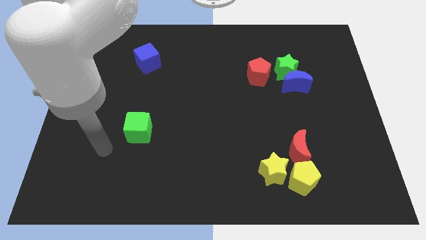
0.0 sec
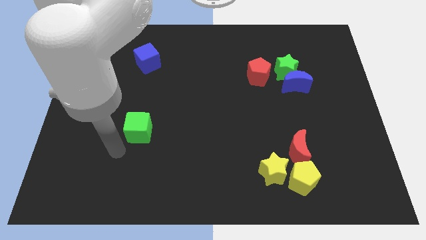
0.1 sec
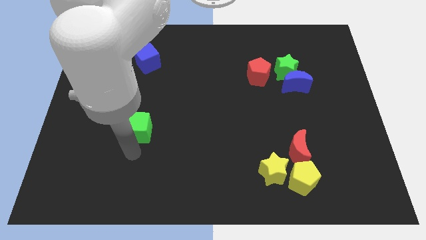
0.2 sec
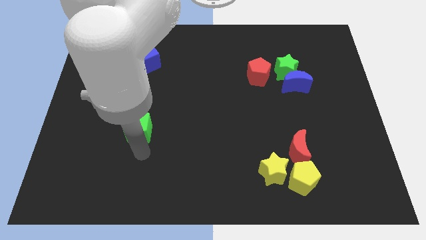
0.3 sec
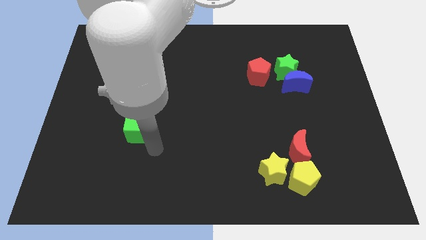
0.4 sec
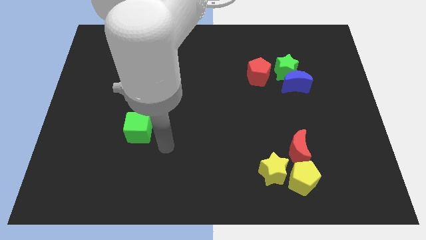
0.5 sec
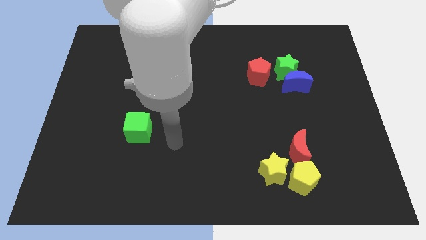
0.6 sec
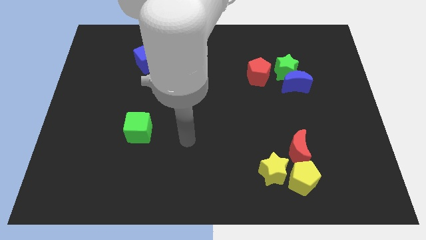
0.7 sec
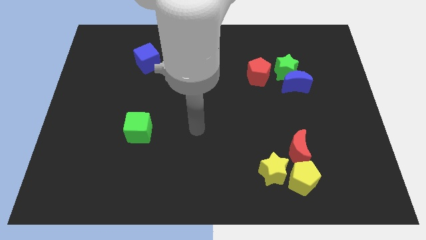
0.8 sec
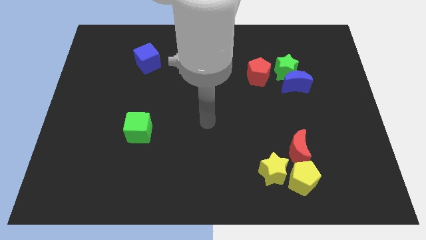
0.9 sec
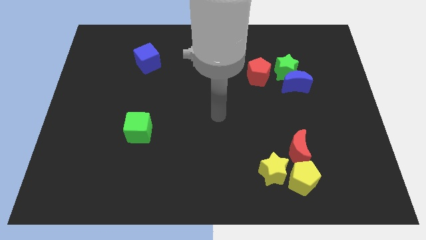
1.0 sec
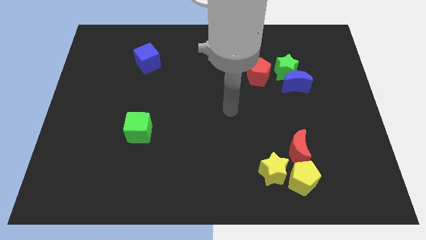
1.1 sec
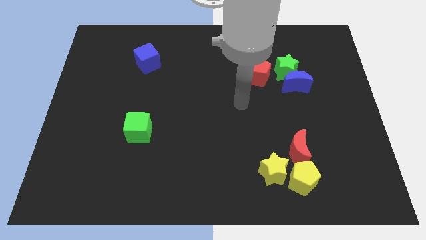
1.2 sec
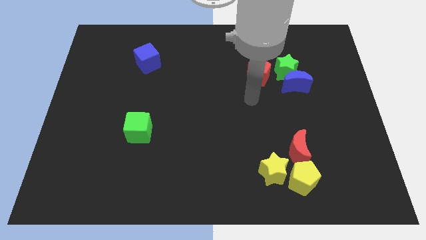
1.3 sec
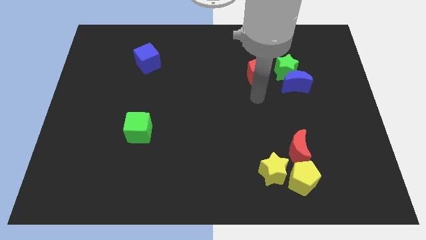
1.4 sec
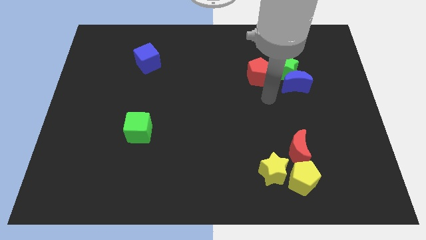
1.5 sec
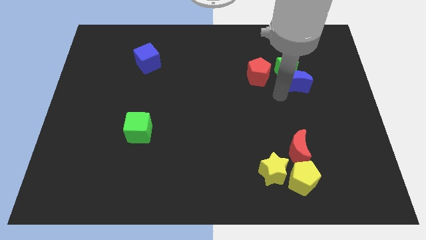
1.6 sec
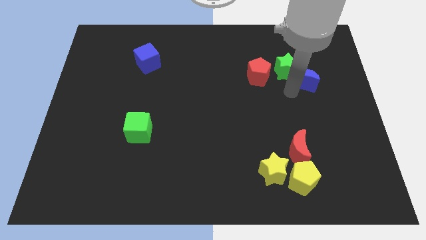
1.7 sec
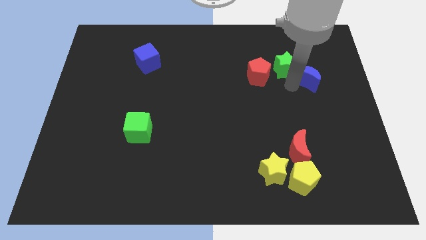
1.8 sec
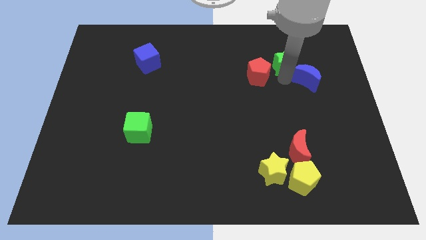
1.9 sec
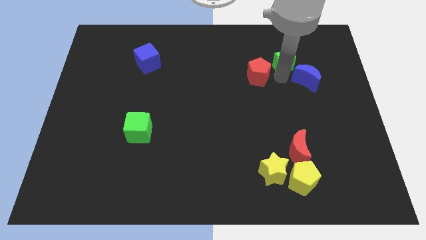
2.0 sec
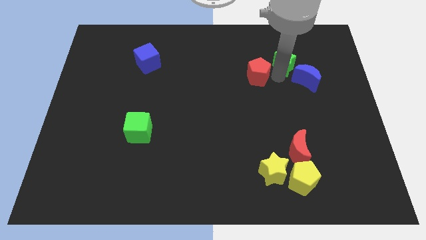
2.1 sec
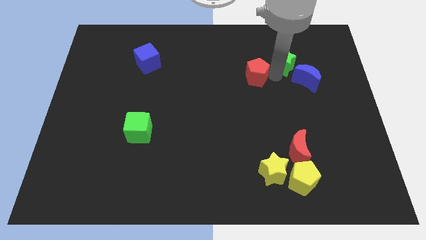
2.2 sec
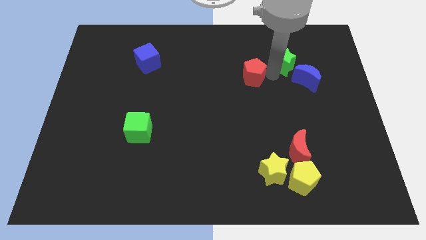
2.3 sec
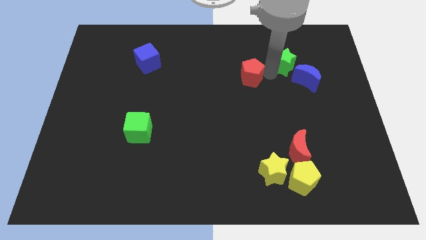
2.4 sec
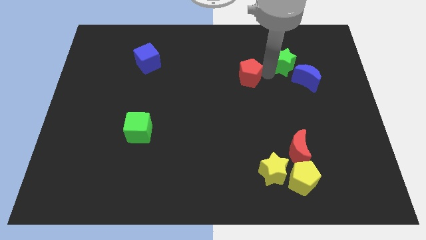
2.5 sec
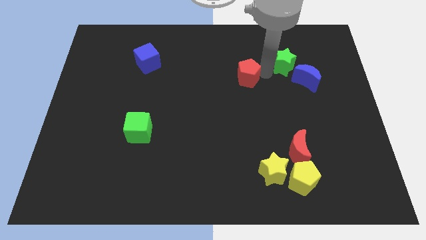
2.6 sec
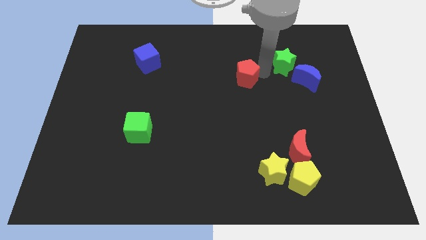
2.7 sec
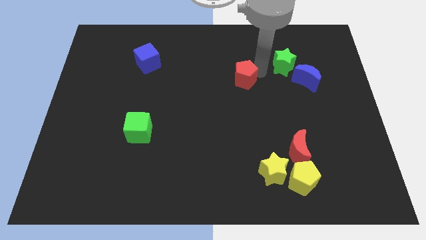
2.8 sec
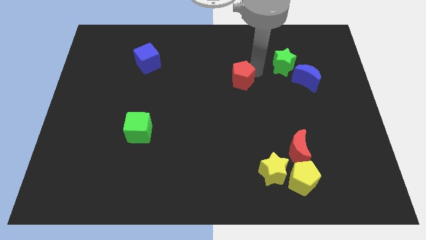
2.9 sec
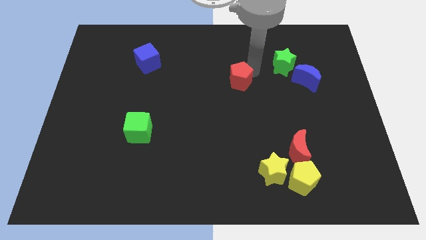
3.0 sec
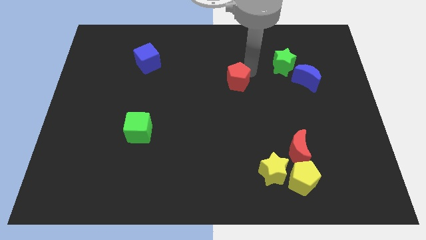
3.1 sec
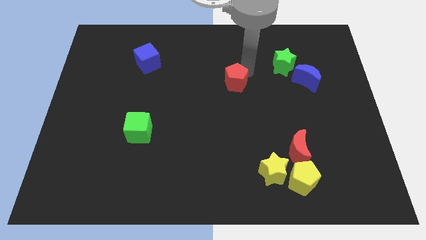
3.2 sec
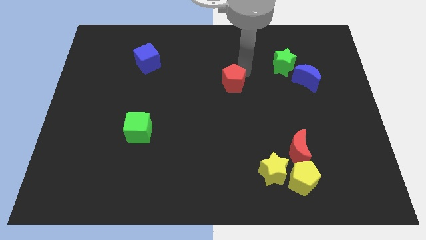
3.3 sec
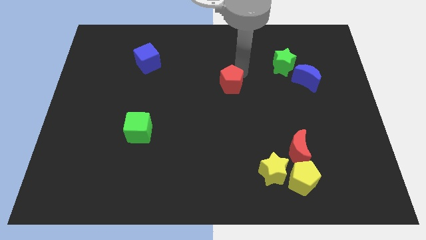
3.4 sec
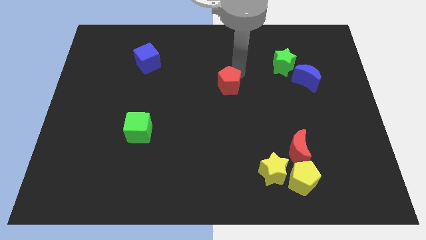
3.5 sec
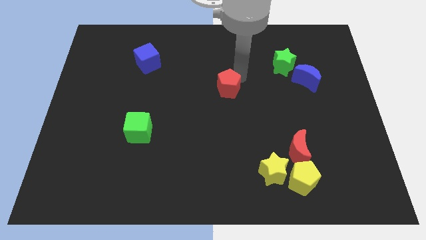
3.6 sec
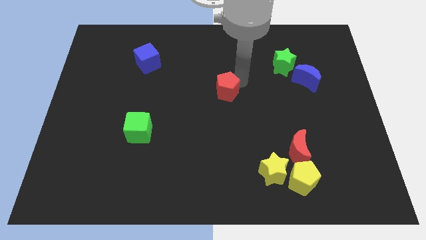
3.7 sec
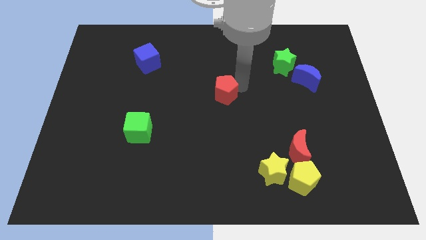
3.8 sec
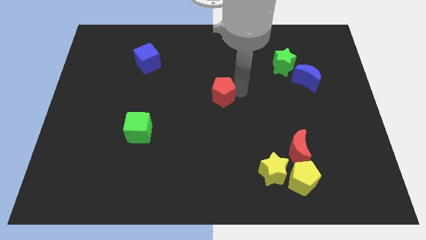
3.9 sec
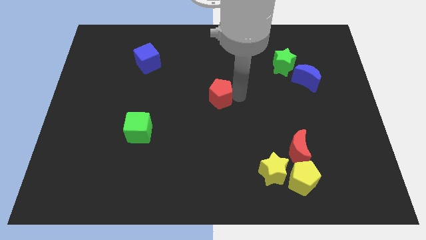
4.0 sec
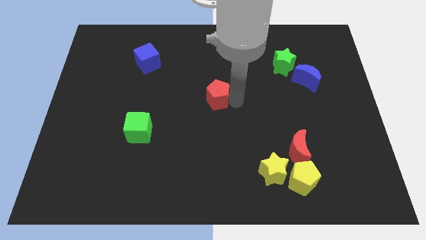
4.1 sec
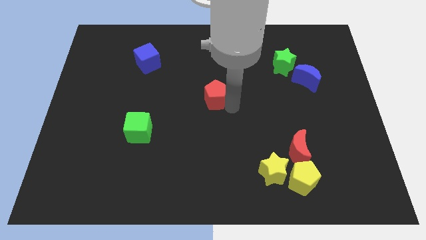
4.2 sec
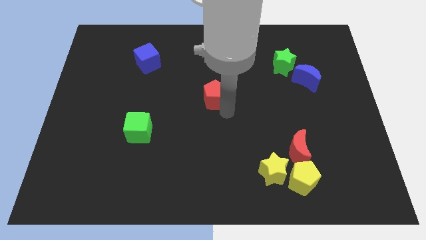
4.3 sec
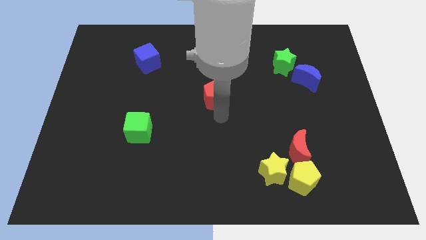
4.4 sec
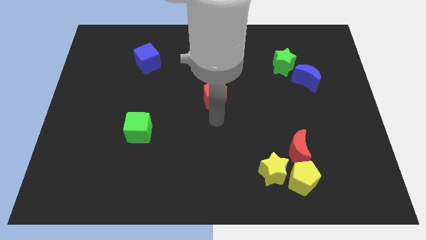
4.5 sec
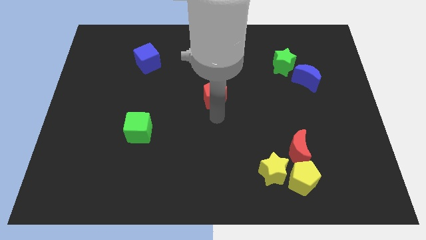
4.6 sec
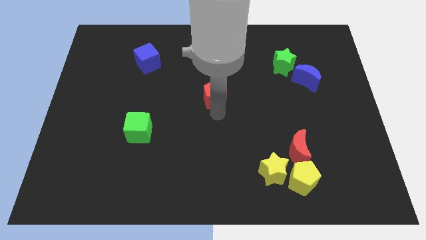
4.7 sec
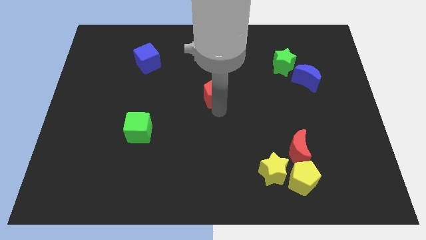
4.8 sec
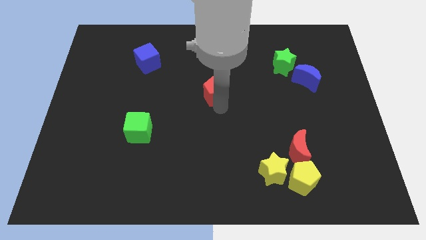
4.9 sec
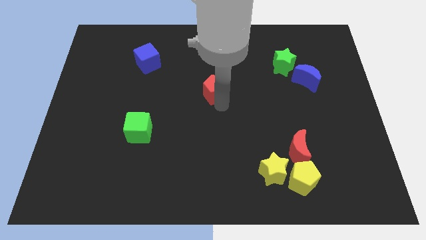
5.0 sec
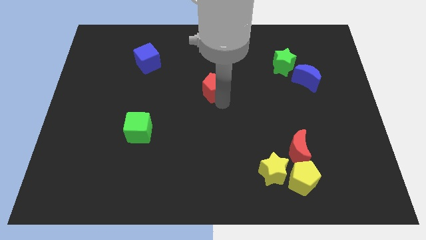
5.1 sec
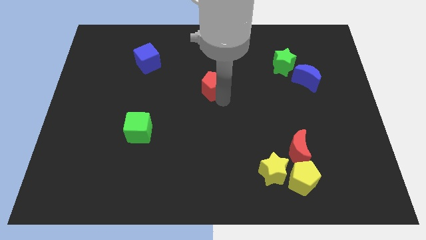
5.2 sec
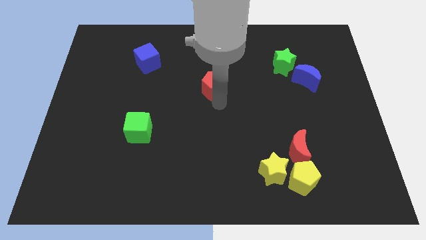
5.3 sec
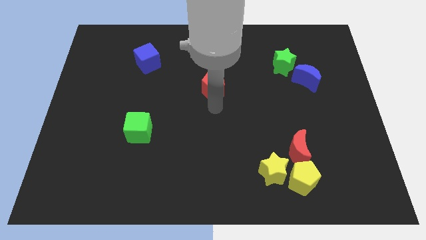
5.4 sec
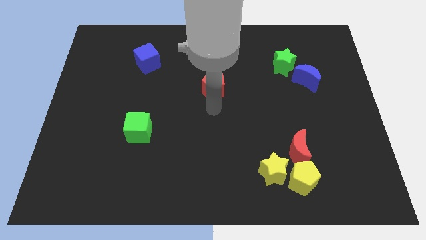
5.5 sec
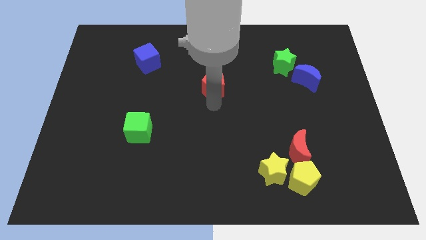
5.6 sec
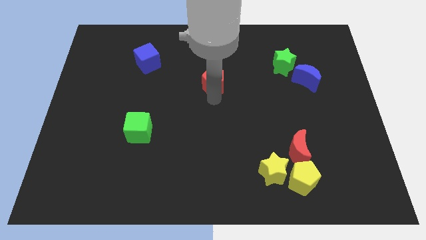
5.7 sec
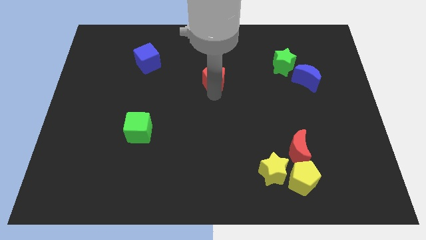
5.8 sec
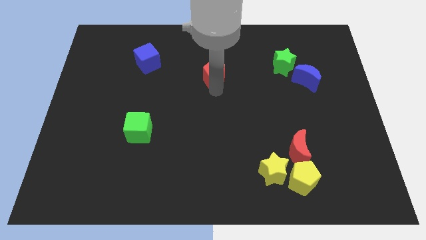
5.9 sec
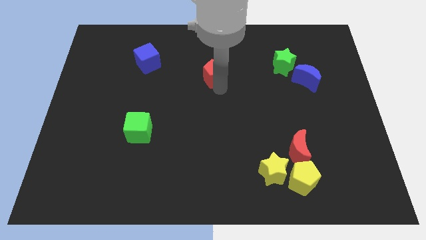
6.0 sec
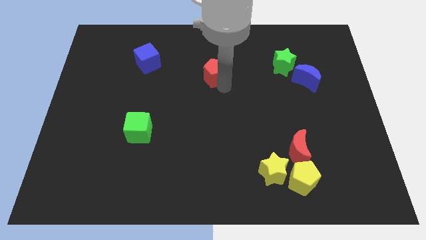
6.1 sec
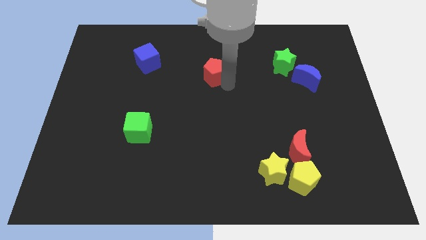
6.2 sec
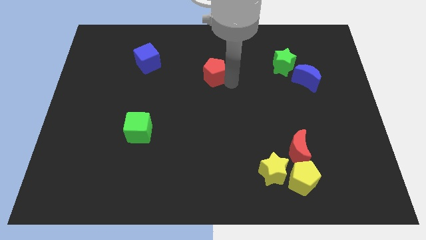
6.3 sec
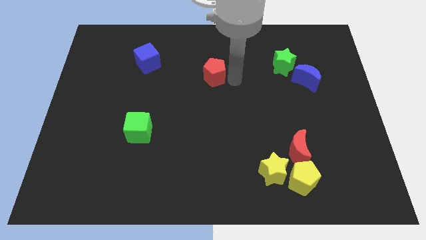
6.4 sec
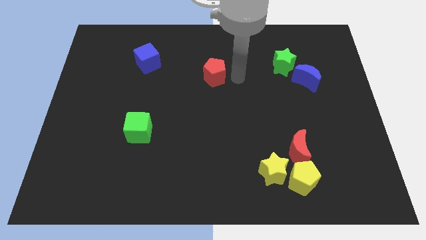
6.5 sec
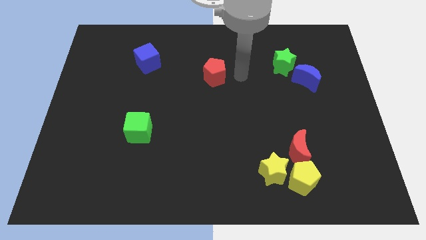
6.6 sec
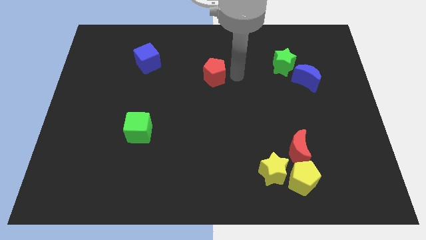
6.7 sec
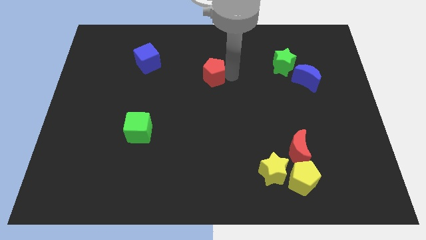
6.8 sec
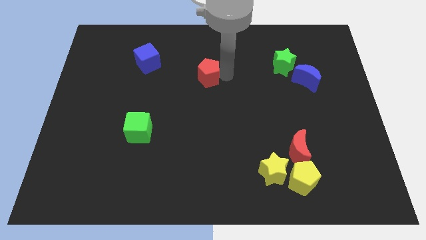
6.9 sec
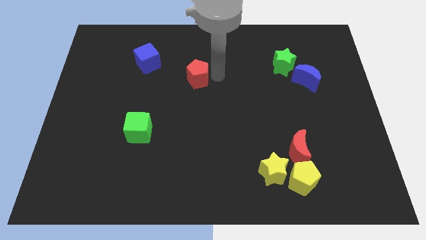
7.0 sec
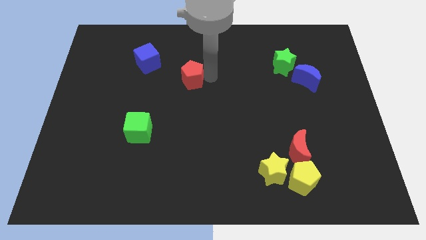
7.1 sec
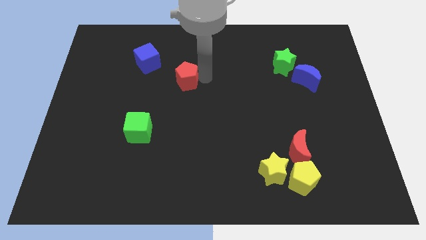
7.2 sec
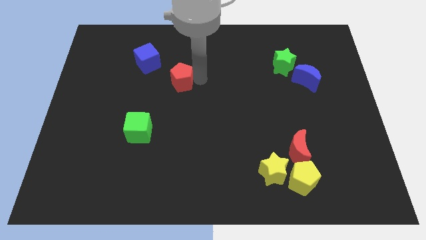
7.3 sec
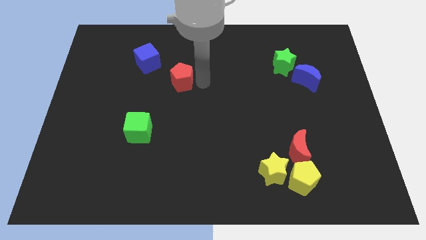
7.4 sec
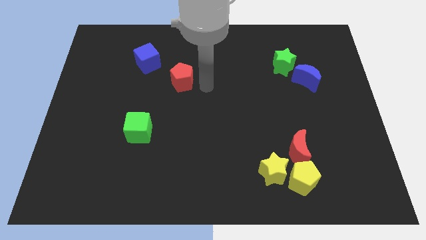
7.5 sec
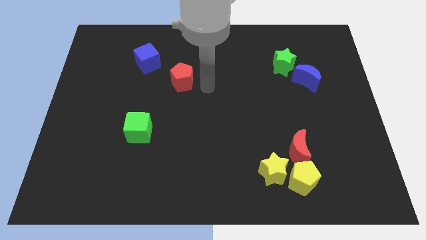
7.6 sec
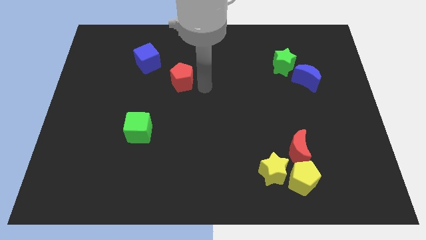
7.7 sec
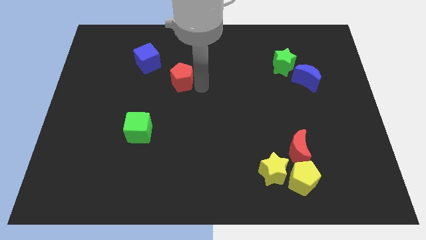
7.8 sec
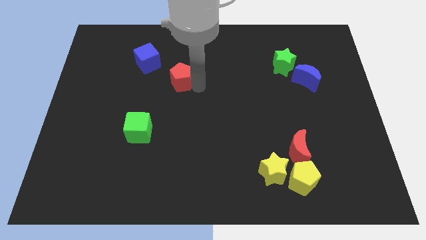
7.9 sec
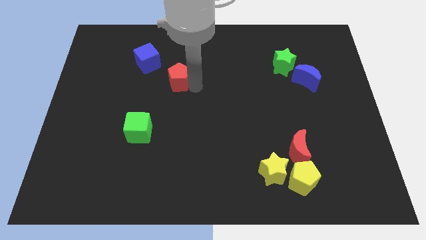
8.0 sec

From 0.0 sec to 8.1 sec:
slide the red pentagon to the left
